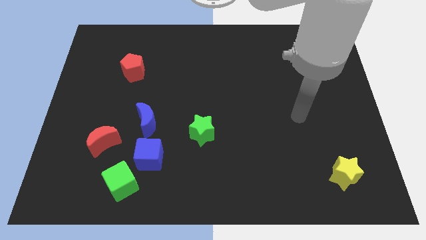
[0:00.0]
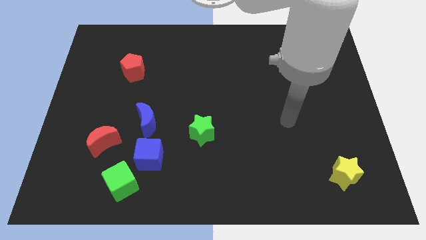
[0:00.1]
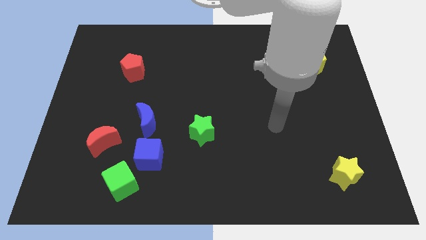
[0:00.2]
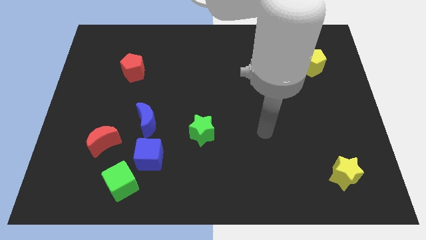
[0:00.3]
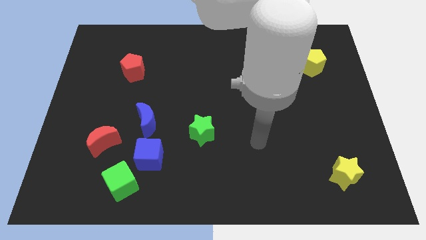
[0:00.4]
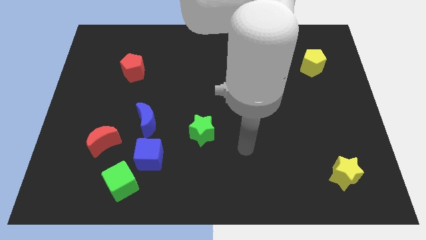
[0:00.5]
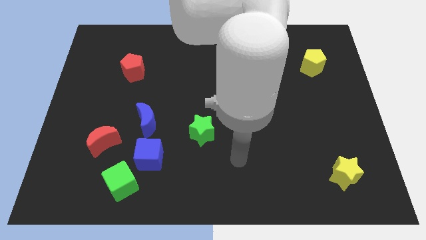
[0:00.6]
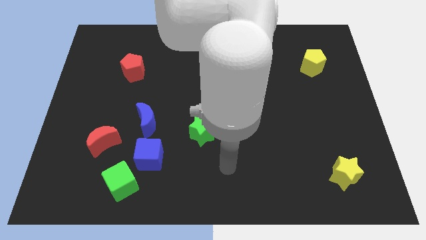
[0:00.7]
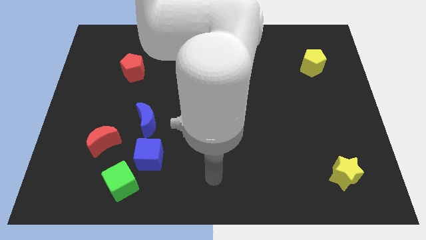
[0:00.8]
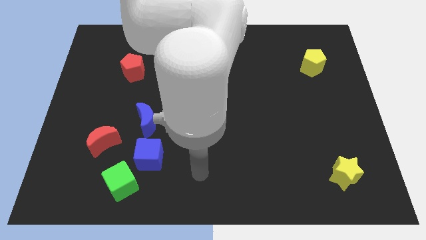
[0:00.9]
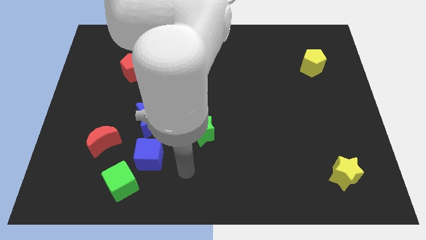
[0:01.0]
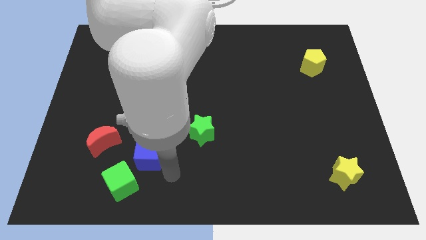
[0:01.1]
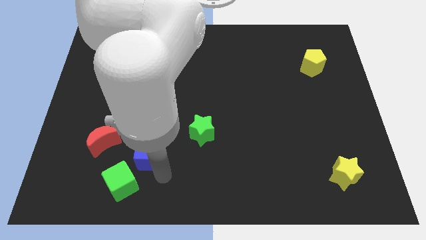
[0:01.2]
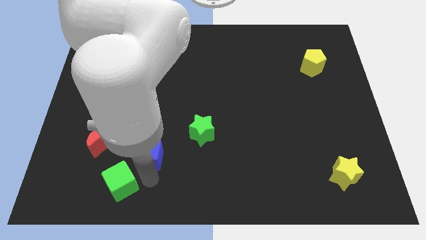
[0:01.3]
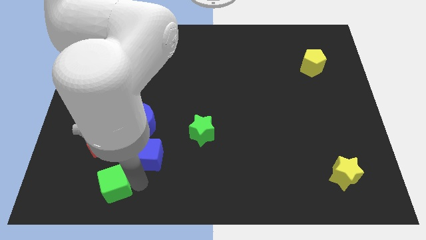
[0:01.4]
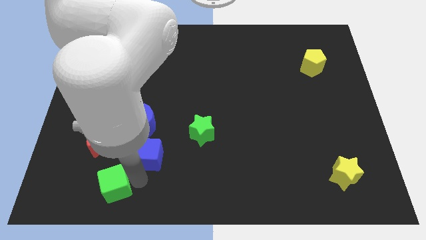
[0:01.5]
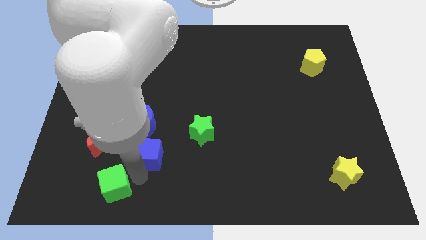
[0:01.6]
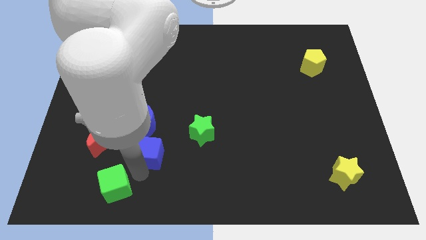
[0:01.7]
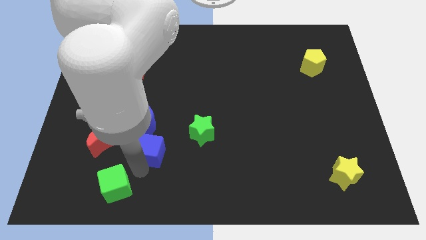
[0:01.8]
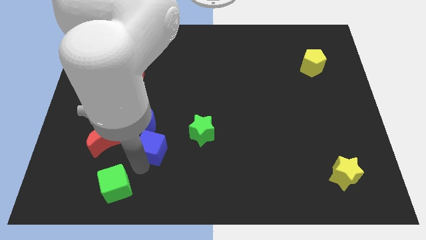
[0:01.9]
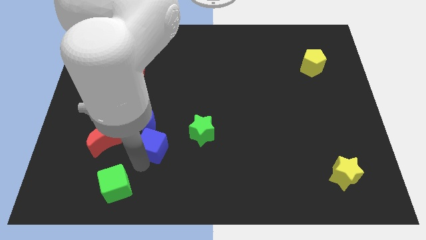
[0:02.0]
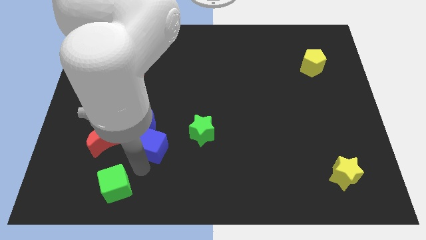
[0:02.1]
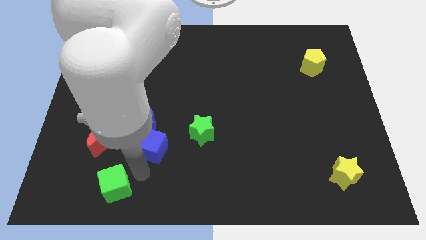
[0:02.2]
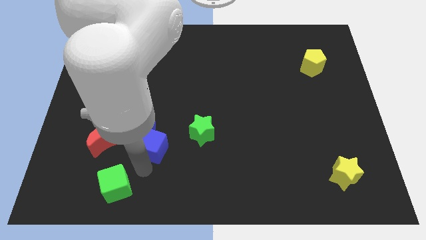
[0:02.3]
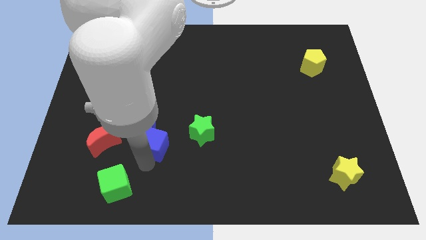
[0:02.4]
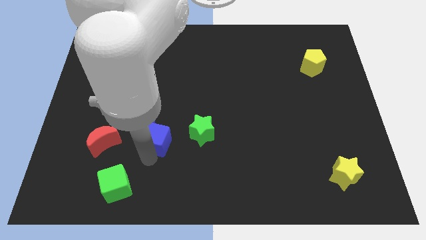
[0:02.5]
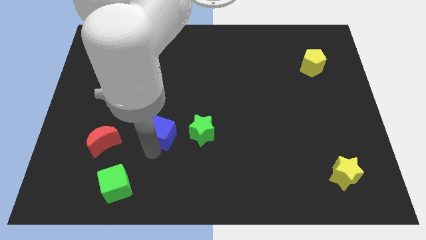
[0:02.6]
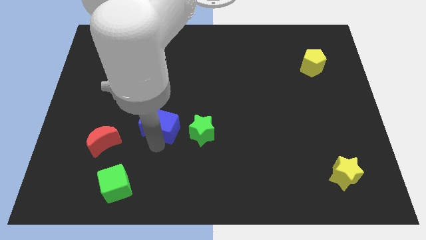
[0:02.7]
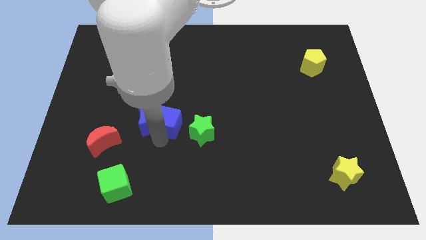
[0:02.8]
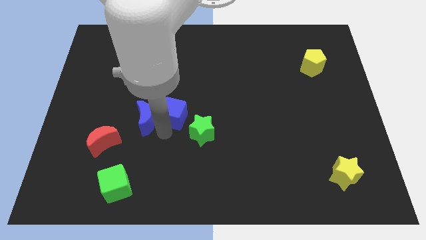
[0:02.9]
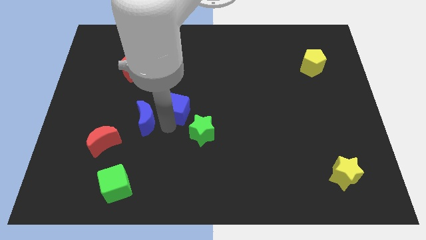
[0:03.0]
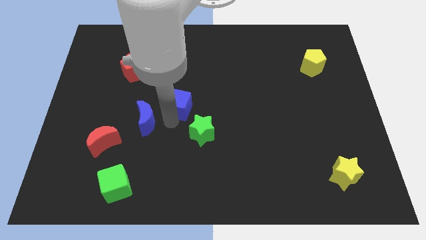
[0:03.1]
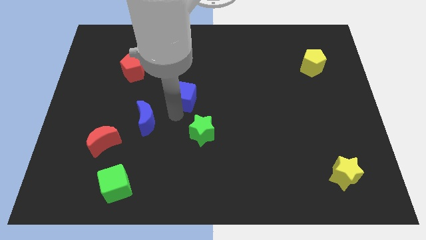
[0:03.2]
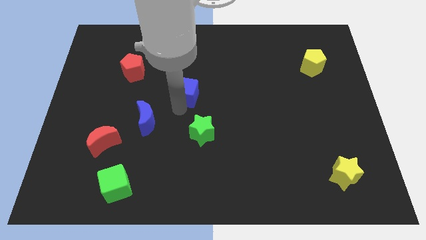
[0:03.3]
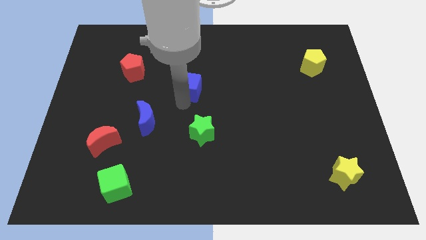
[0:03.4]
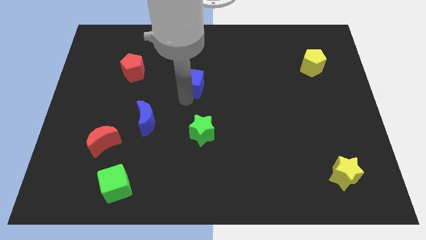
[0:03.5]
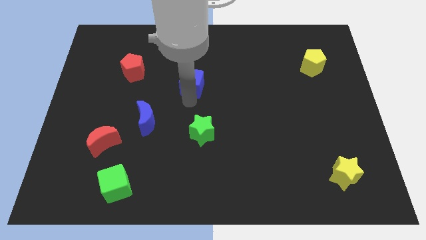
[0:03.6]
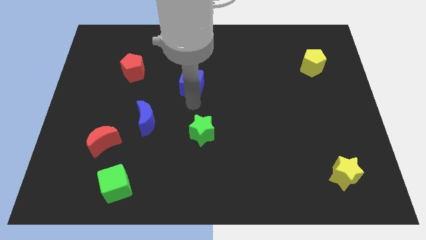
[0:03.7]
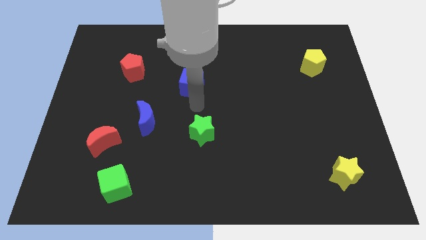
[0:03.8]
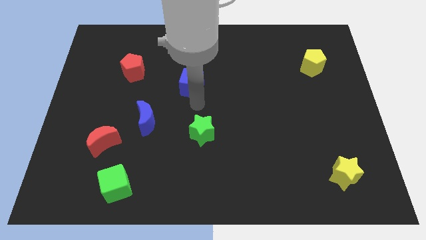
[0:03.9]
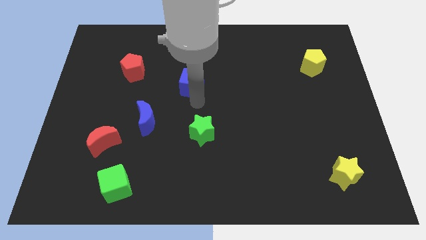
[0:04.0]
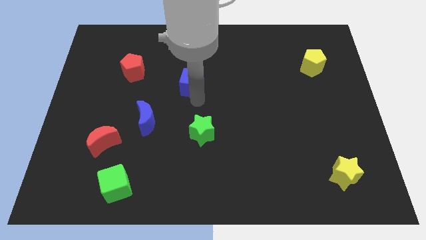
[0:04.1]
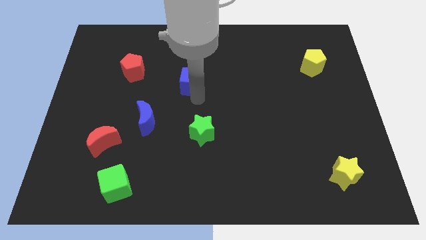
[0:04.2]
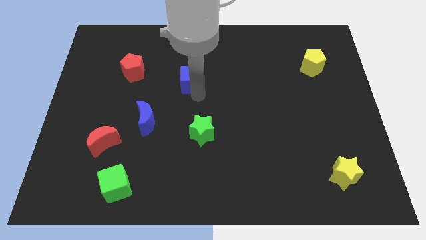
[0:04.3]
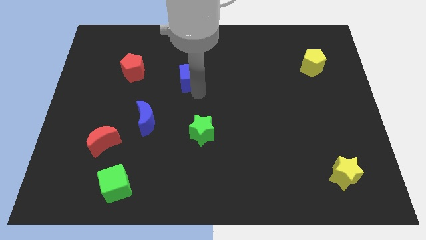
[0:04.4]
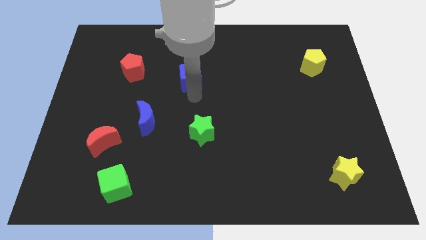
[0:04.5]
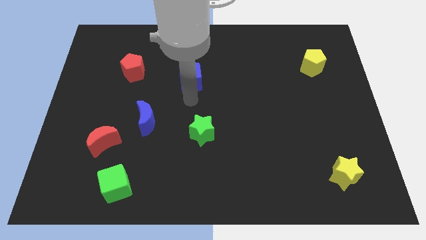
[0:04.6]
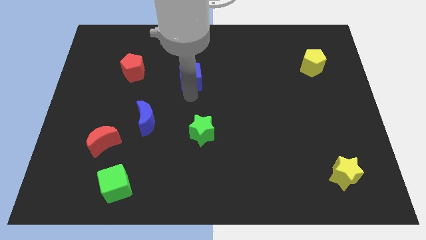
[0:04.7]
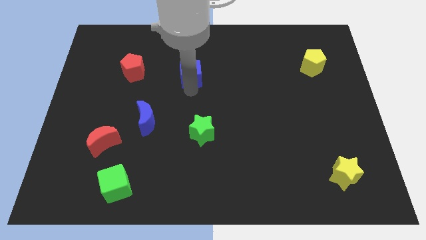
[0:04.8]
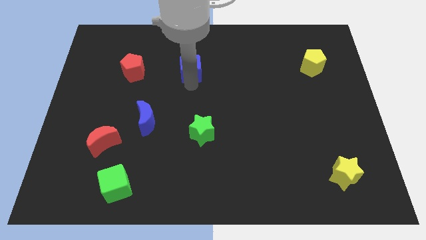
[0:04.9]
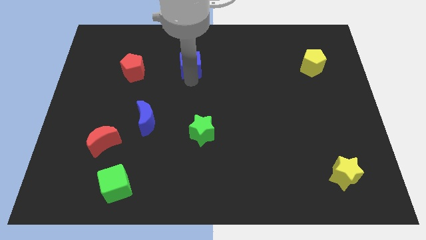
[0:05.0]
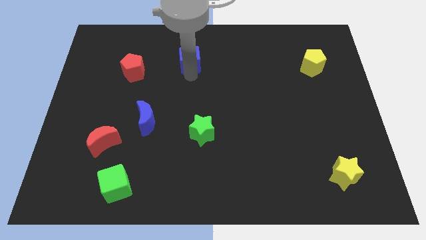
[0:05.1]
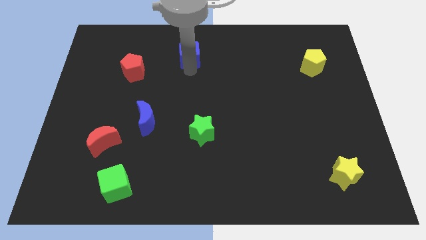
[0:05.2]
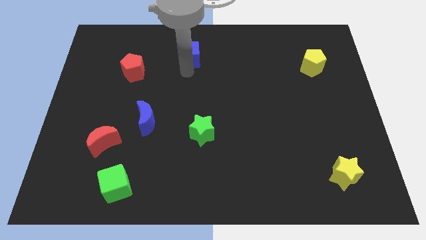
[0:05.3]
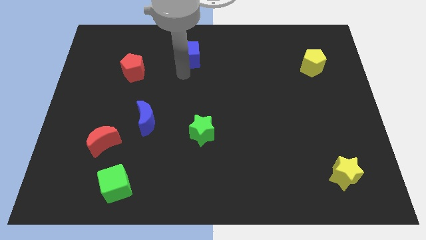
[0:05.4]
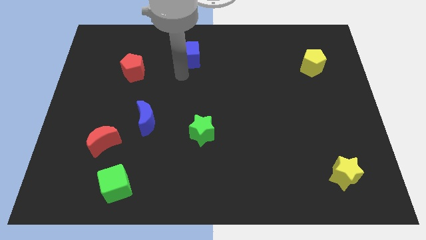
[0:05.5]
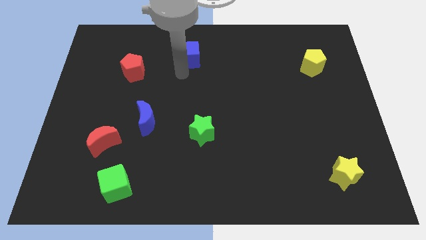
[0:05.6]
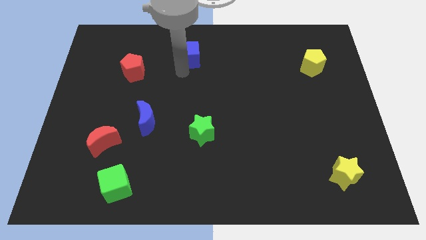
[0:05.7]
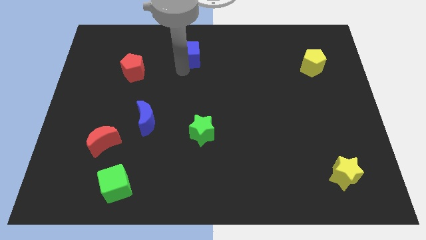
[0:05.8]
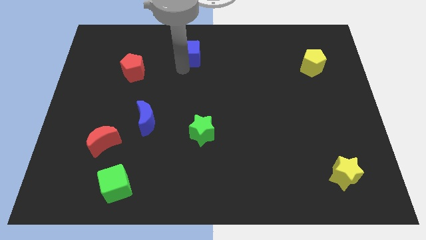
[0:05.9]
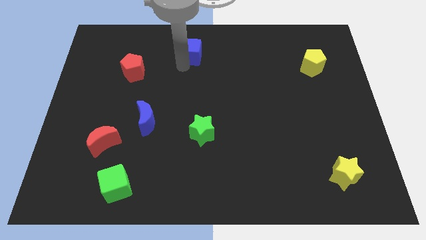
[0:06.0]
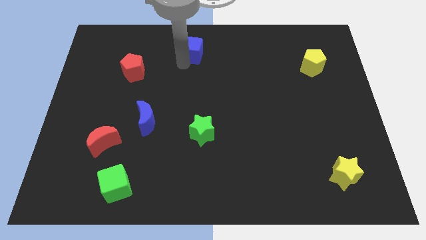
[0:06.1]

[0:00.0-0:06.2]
move the blue cube to the towards your base
